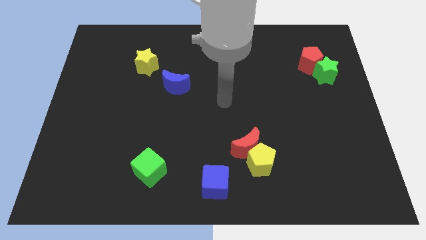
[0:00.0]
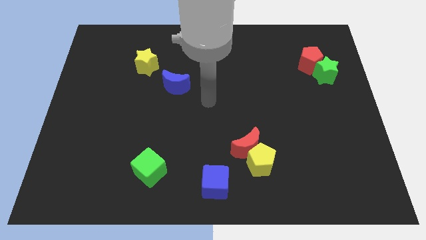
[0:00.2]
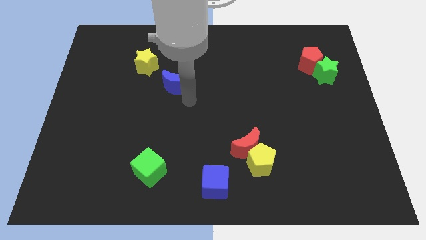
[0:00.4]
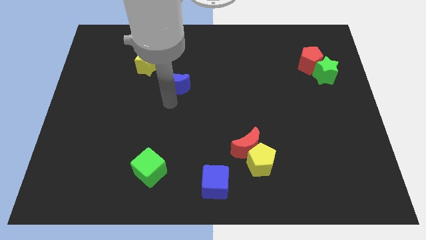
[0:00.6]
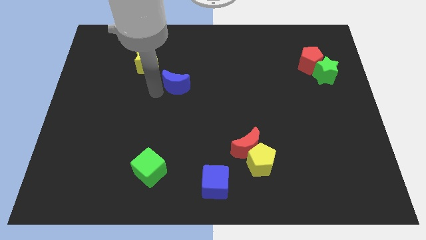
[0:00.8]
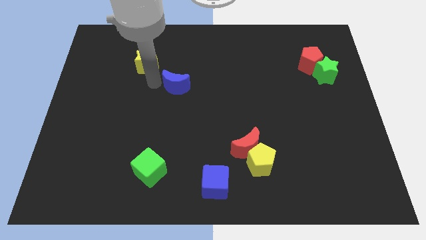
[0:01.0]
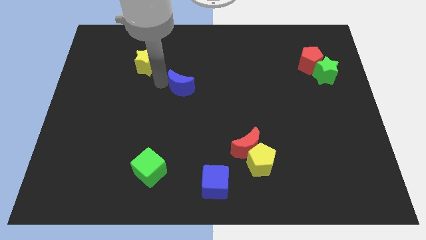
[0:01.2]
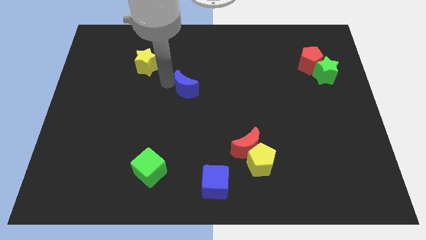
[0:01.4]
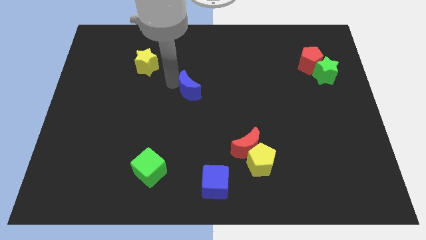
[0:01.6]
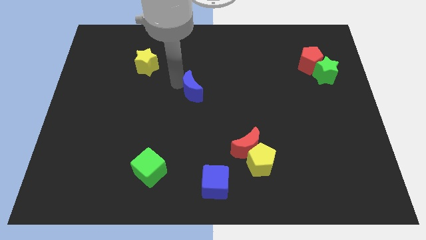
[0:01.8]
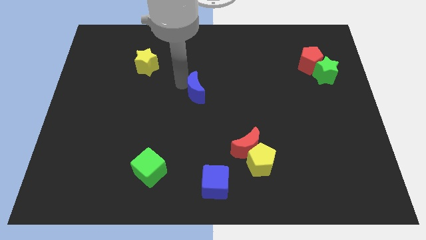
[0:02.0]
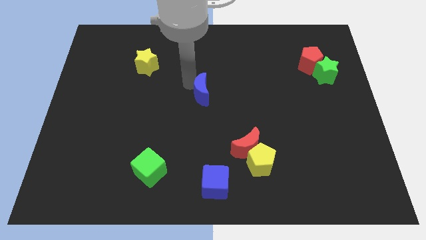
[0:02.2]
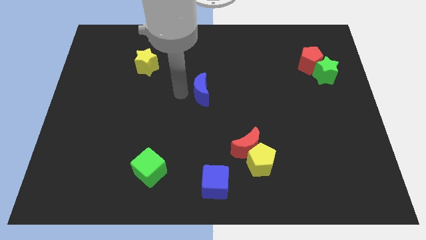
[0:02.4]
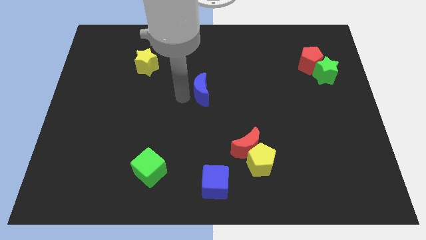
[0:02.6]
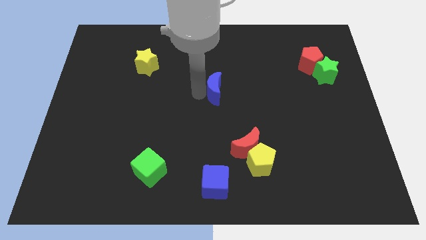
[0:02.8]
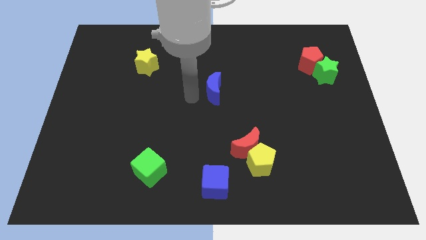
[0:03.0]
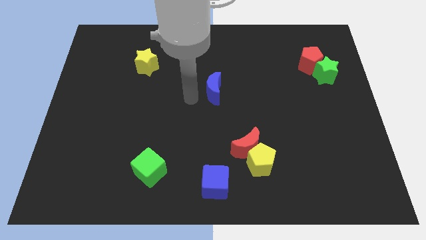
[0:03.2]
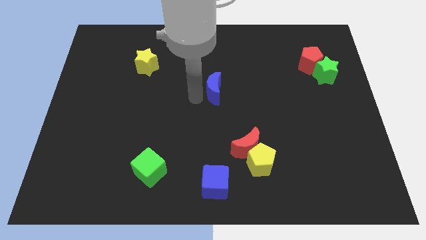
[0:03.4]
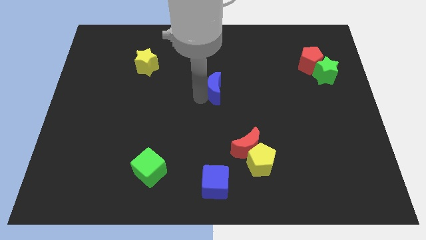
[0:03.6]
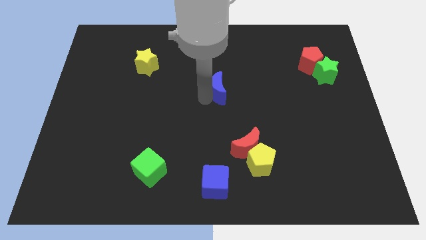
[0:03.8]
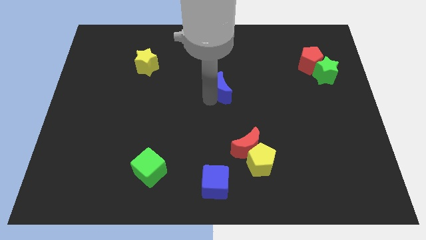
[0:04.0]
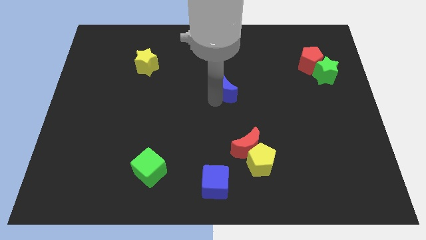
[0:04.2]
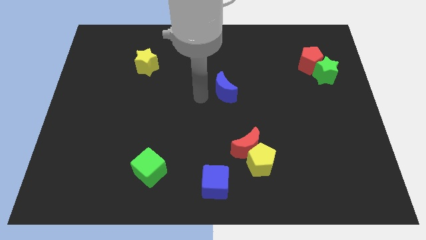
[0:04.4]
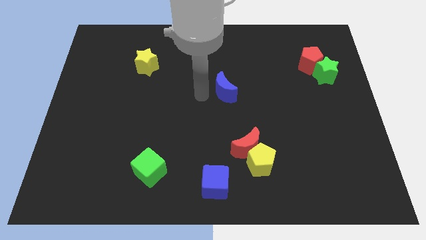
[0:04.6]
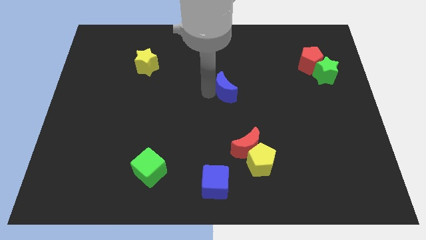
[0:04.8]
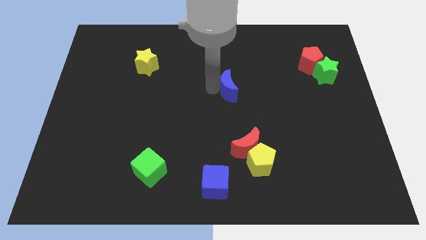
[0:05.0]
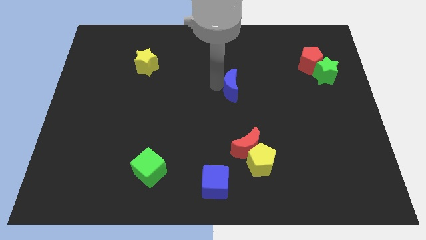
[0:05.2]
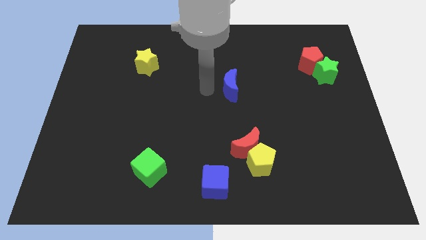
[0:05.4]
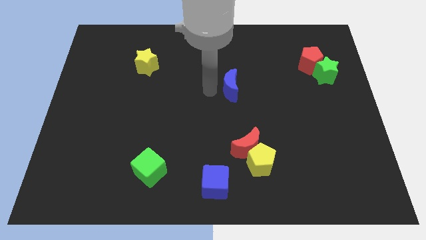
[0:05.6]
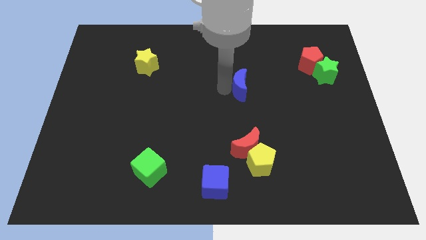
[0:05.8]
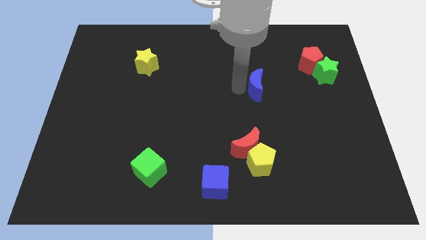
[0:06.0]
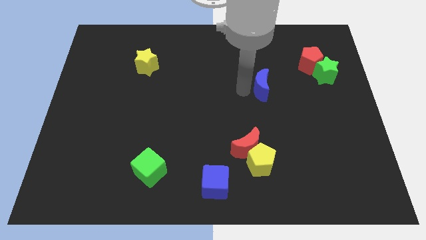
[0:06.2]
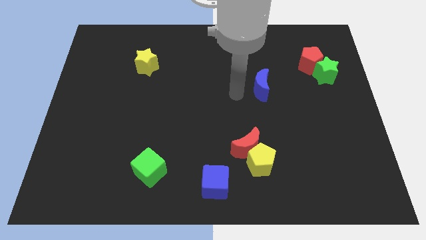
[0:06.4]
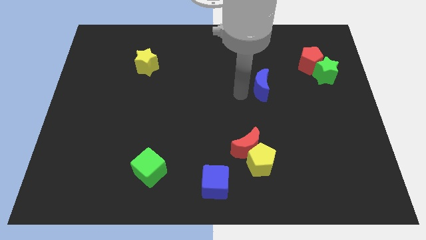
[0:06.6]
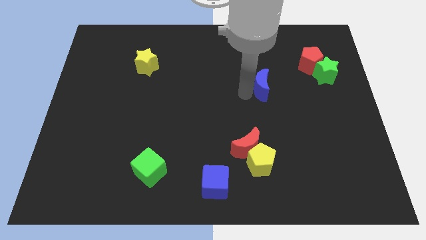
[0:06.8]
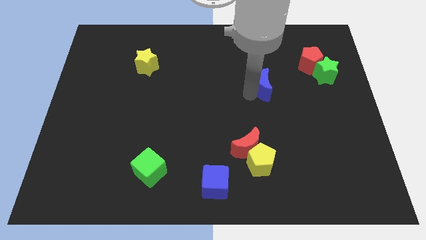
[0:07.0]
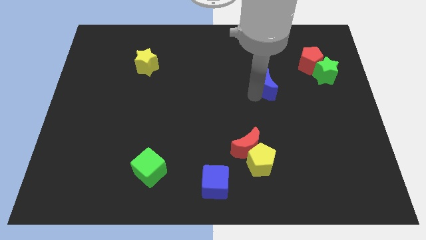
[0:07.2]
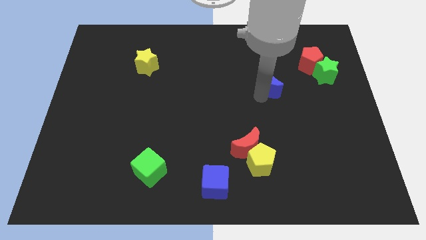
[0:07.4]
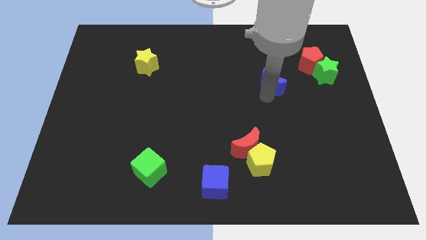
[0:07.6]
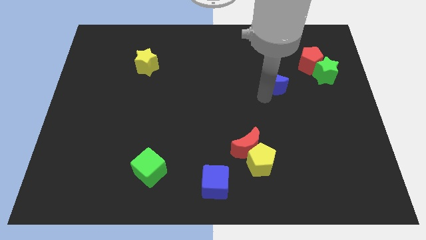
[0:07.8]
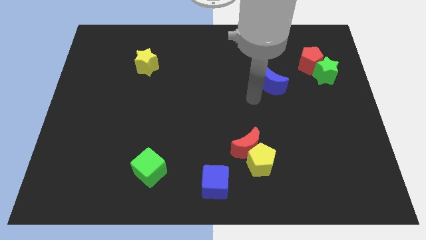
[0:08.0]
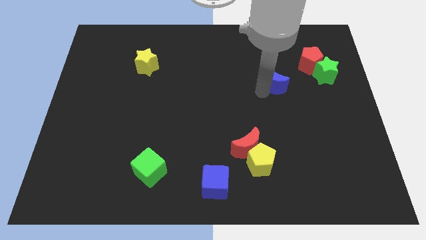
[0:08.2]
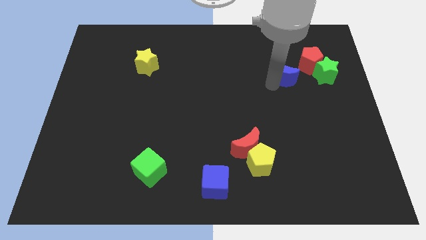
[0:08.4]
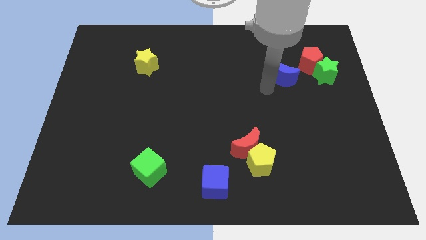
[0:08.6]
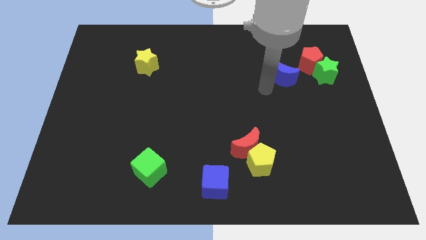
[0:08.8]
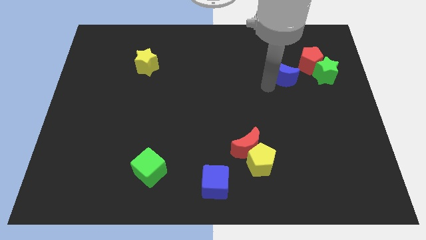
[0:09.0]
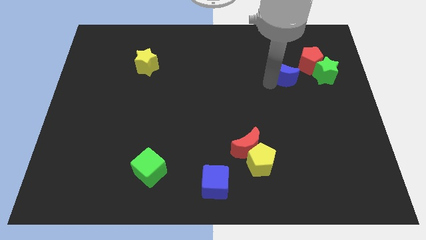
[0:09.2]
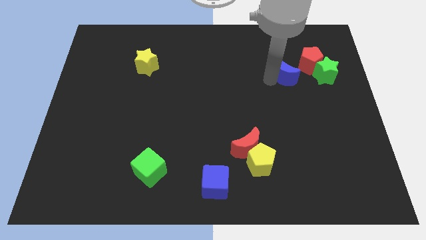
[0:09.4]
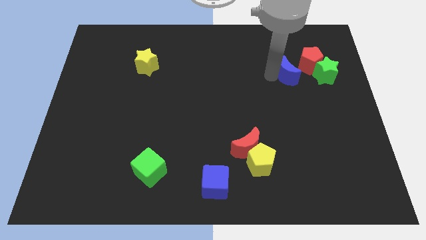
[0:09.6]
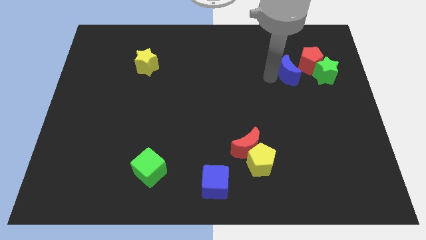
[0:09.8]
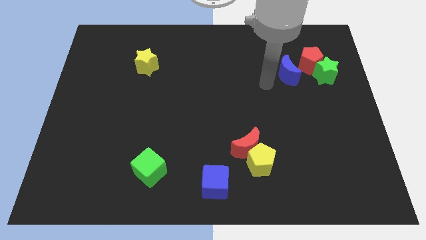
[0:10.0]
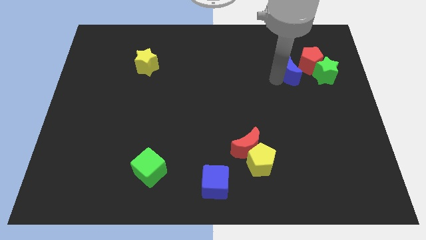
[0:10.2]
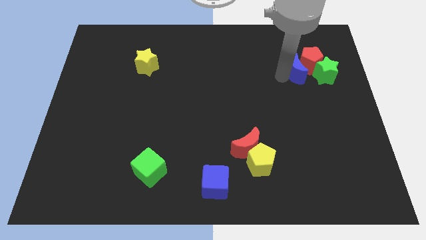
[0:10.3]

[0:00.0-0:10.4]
put the blue moon to the red pentagon

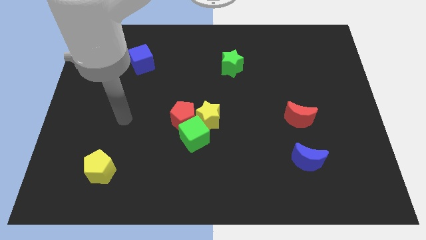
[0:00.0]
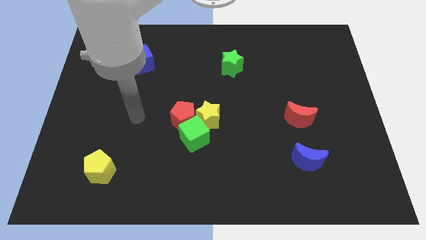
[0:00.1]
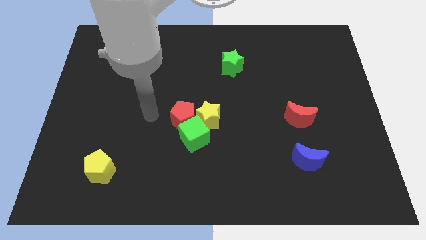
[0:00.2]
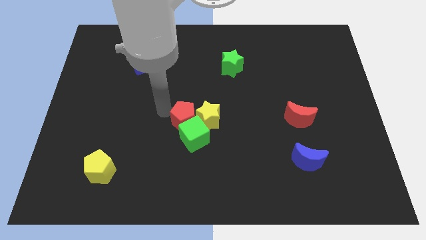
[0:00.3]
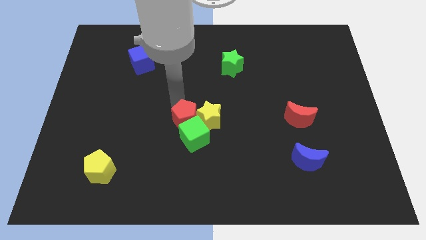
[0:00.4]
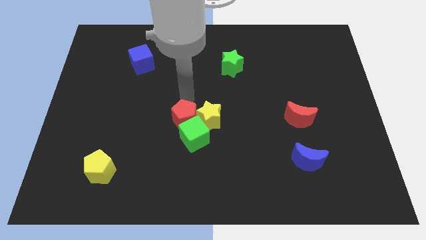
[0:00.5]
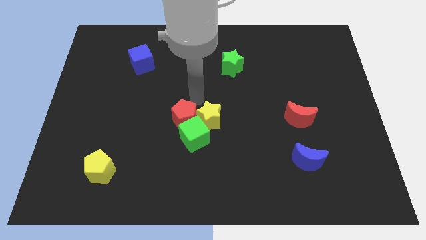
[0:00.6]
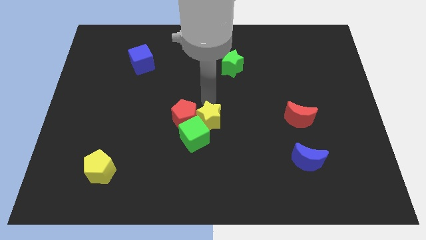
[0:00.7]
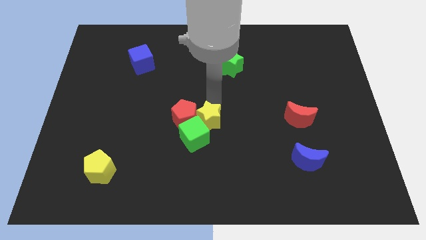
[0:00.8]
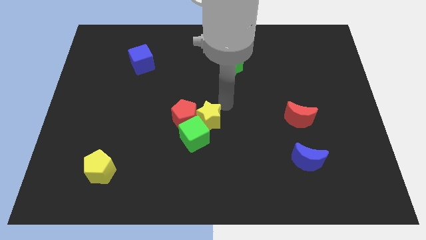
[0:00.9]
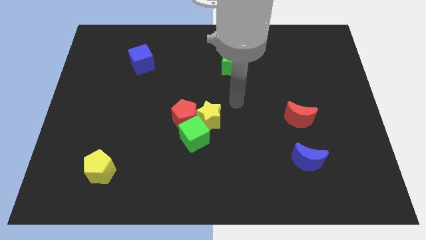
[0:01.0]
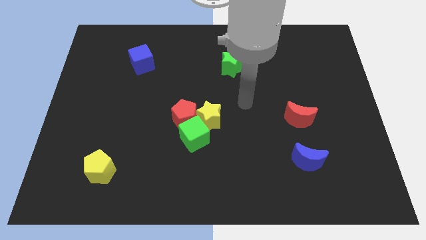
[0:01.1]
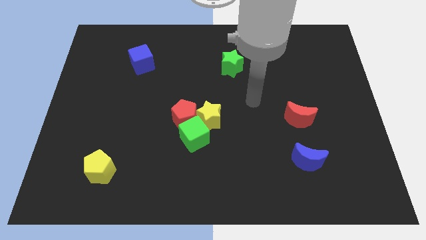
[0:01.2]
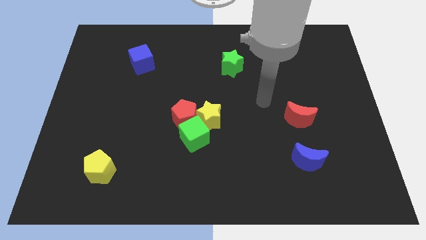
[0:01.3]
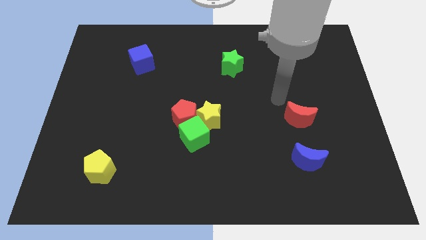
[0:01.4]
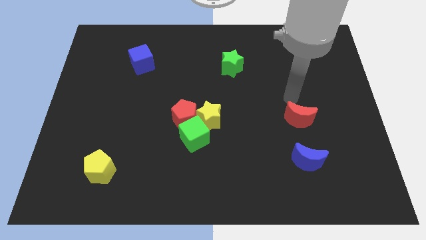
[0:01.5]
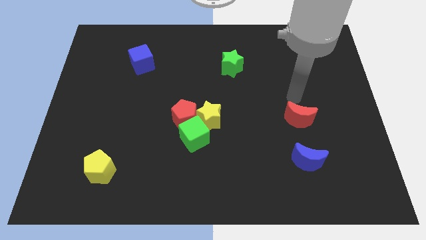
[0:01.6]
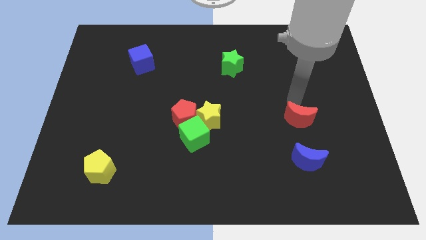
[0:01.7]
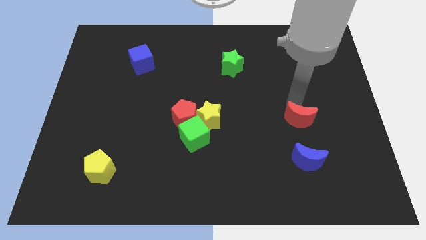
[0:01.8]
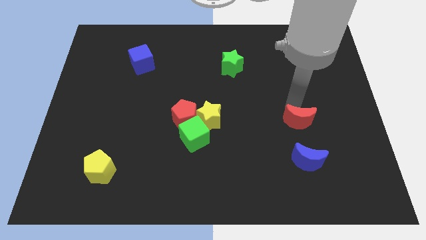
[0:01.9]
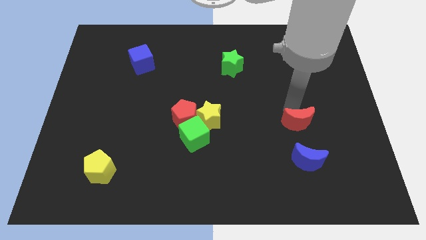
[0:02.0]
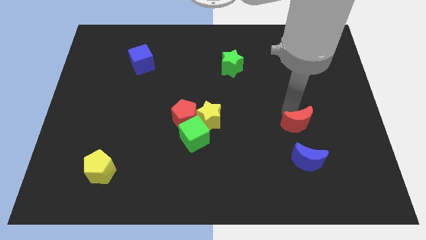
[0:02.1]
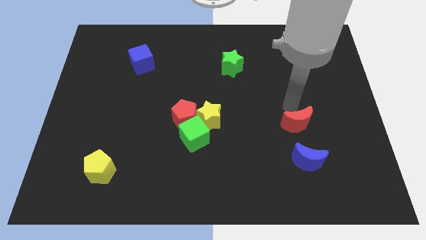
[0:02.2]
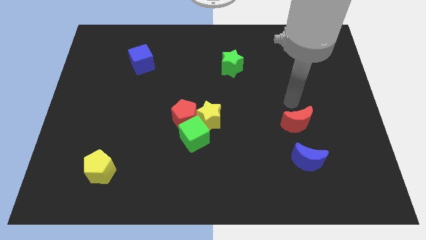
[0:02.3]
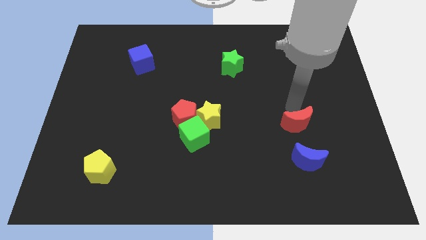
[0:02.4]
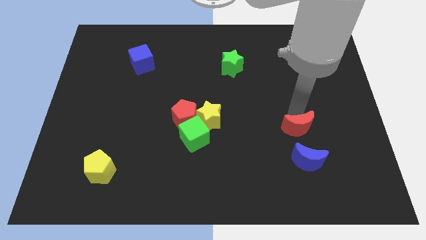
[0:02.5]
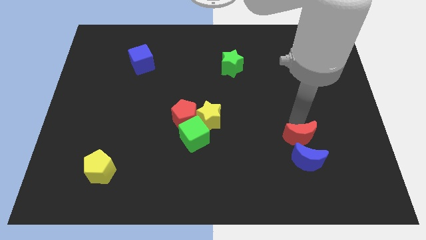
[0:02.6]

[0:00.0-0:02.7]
put the red moon towards the blue moon
